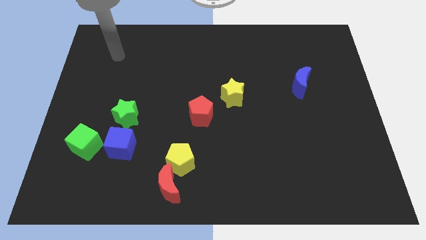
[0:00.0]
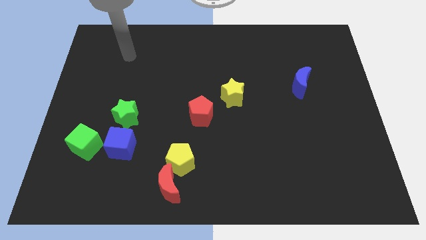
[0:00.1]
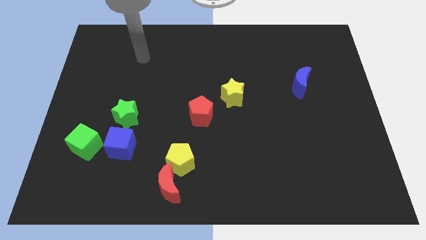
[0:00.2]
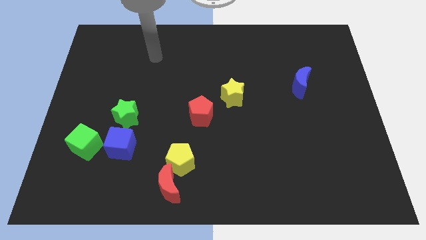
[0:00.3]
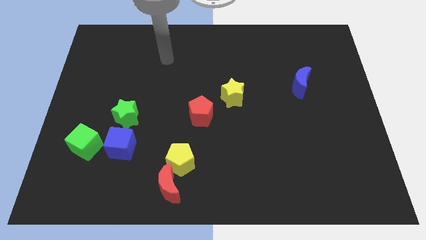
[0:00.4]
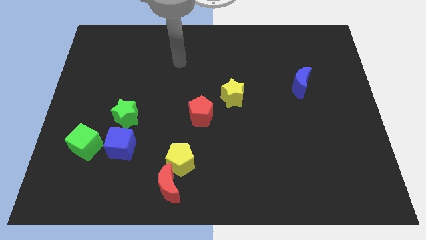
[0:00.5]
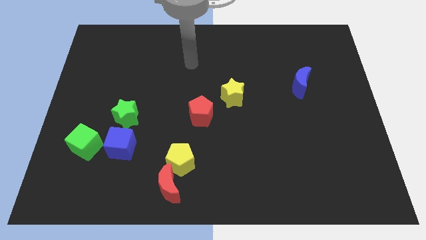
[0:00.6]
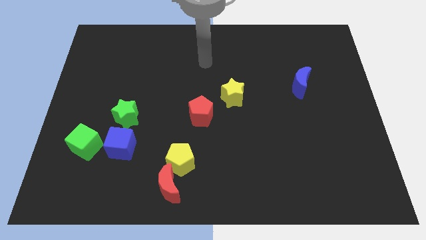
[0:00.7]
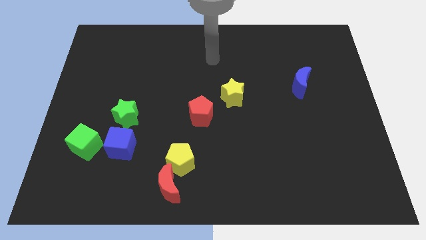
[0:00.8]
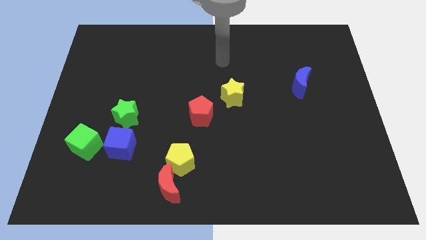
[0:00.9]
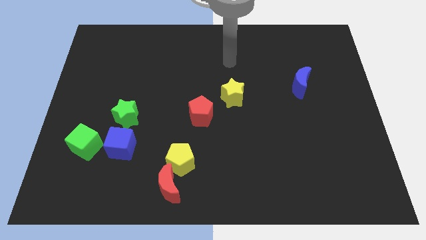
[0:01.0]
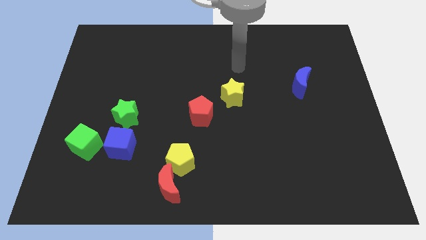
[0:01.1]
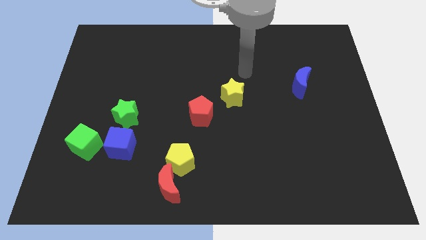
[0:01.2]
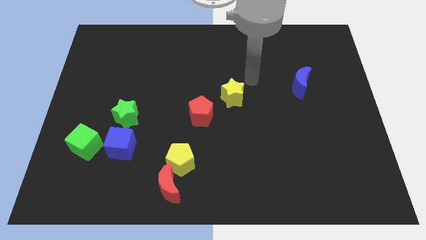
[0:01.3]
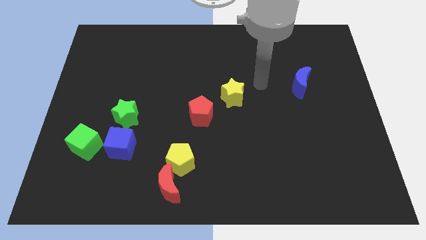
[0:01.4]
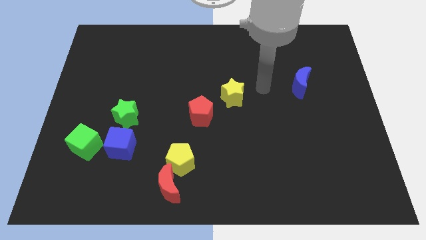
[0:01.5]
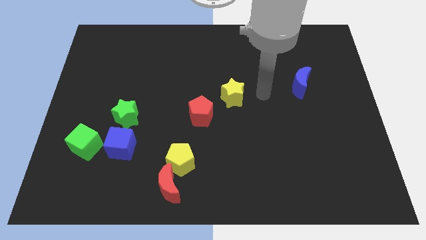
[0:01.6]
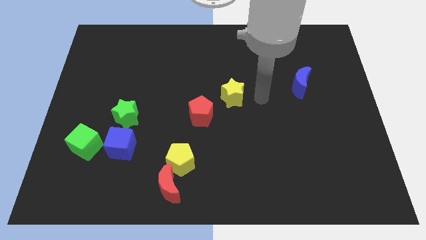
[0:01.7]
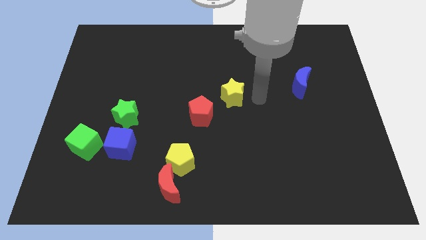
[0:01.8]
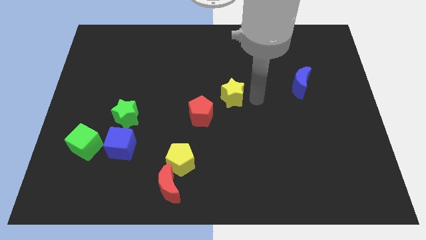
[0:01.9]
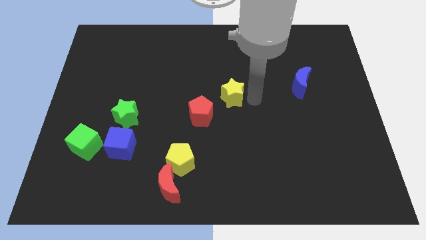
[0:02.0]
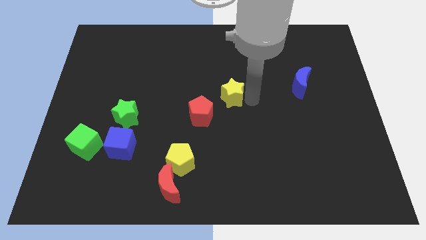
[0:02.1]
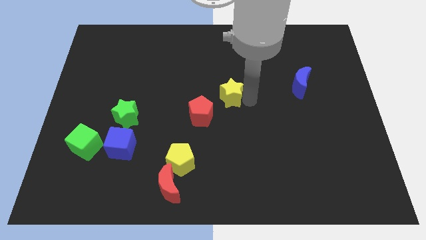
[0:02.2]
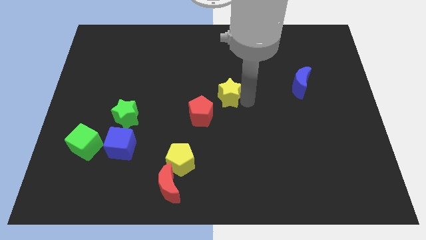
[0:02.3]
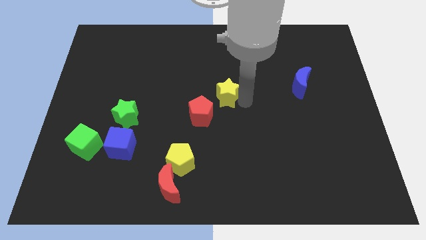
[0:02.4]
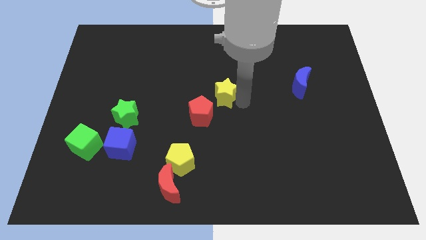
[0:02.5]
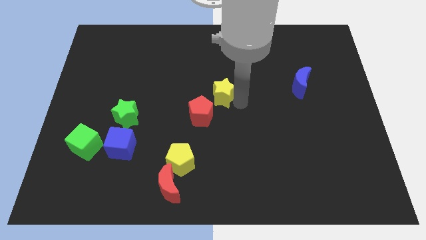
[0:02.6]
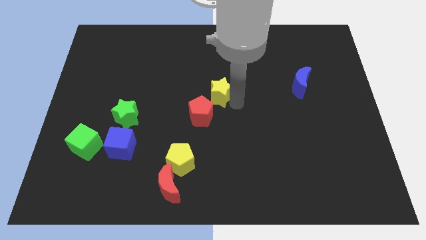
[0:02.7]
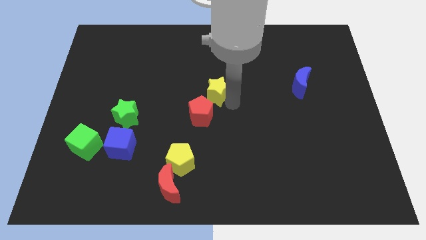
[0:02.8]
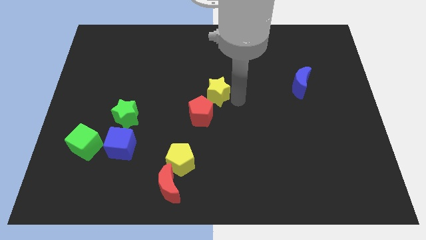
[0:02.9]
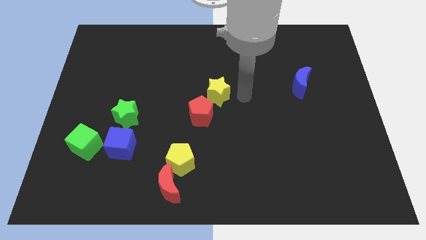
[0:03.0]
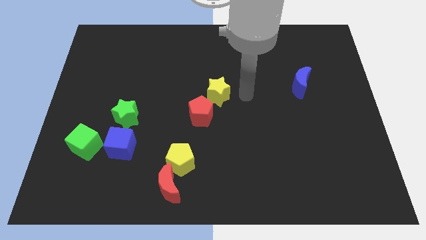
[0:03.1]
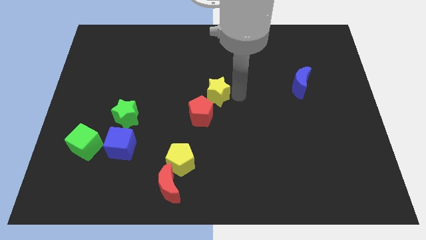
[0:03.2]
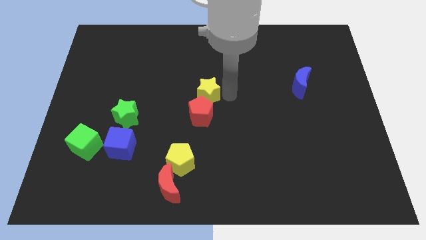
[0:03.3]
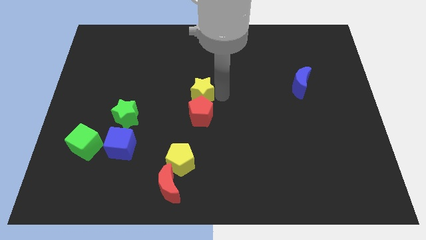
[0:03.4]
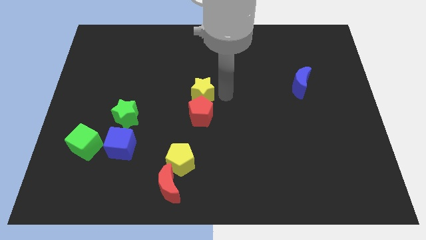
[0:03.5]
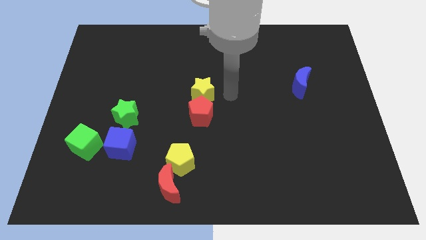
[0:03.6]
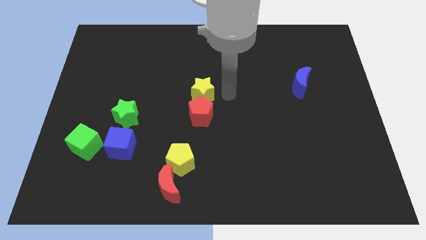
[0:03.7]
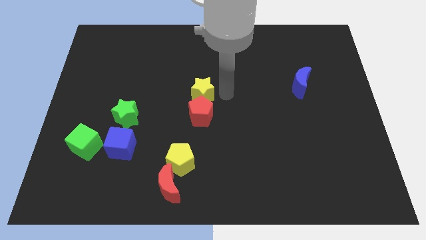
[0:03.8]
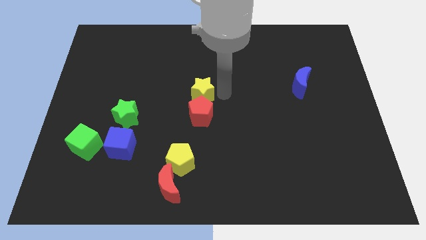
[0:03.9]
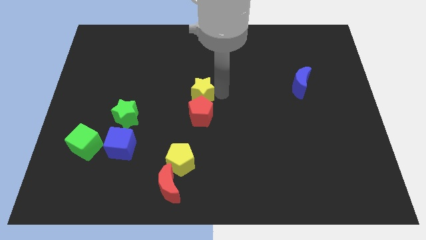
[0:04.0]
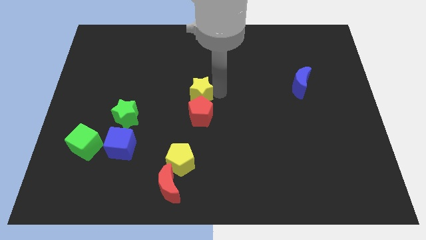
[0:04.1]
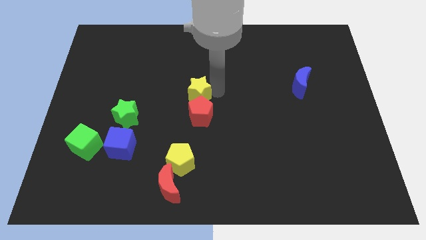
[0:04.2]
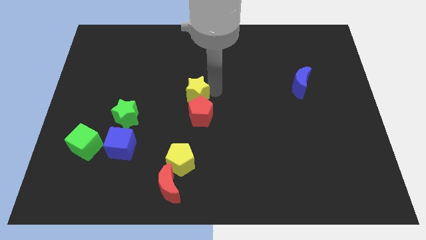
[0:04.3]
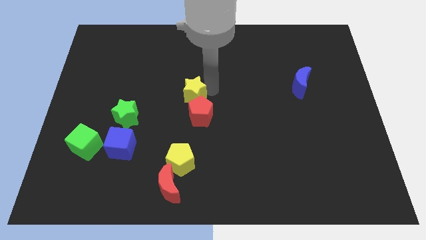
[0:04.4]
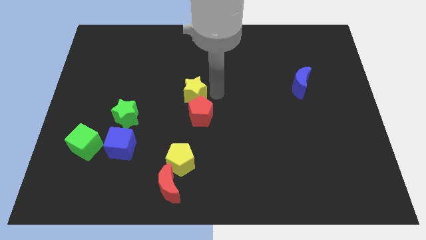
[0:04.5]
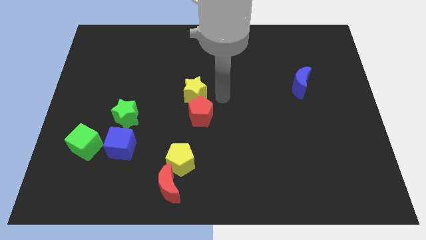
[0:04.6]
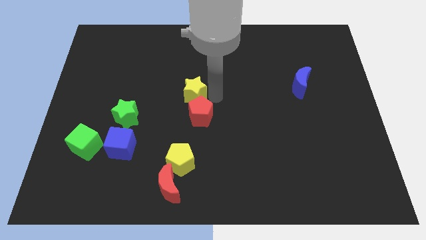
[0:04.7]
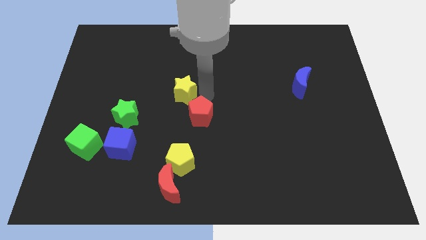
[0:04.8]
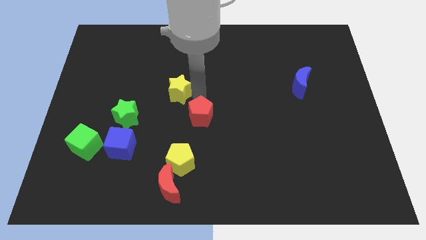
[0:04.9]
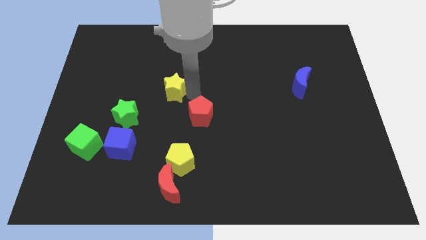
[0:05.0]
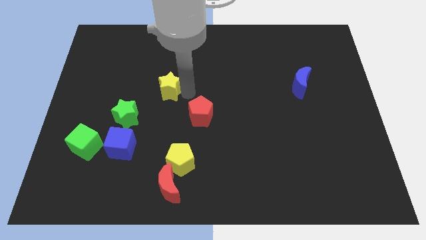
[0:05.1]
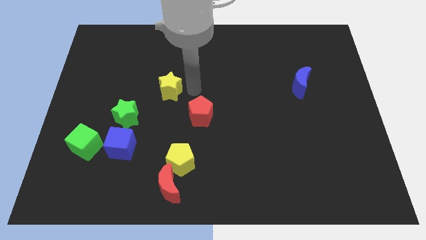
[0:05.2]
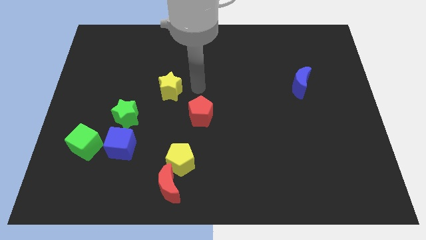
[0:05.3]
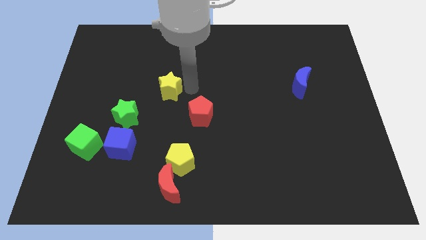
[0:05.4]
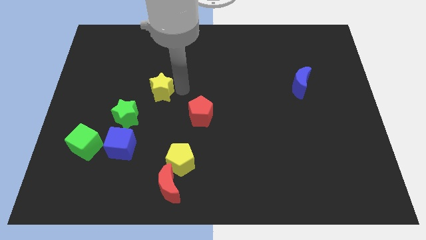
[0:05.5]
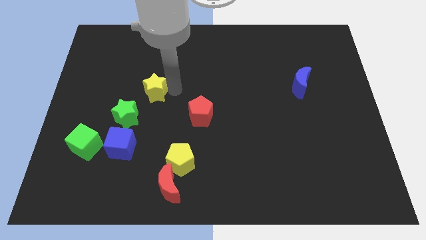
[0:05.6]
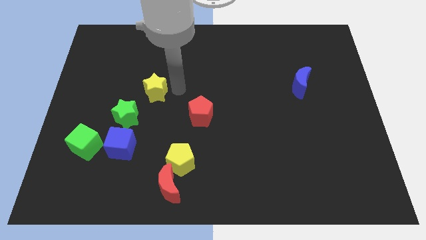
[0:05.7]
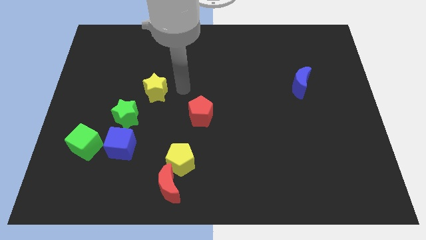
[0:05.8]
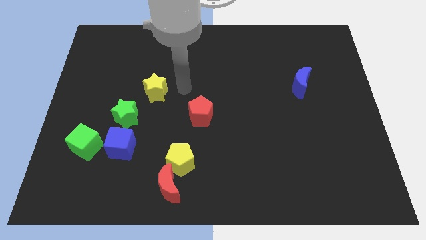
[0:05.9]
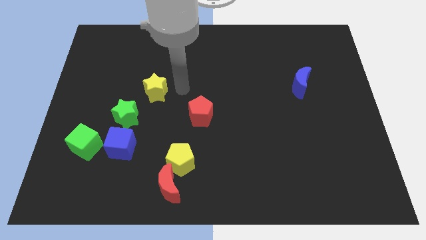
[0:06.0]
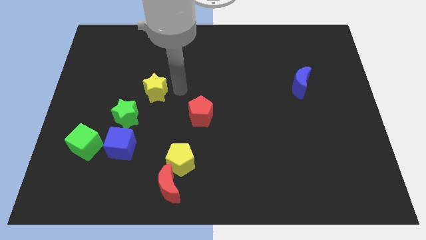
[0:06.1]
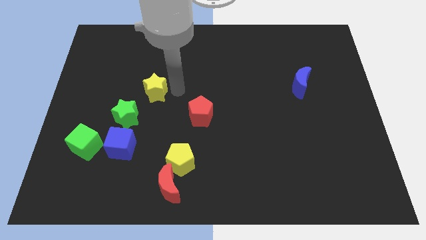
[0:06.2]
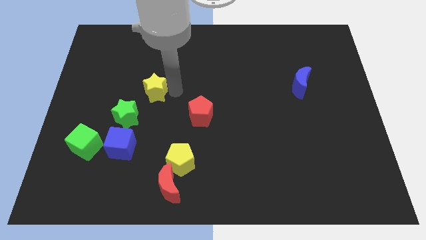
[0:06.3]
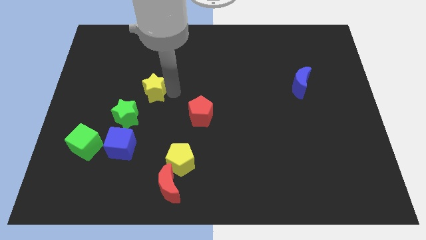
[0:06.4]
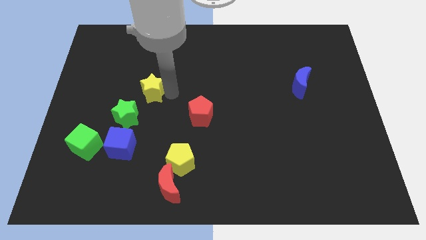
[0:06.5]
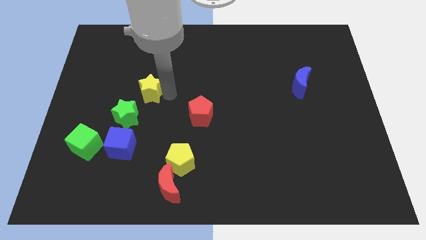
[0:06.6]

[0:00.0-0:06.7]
slide the yellow star to the left

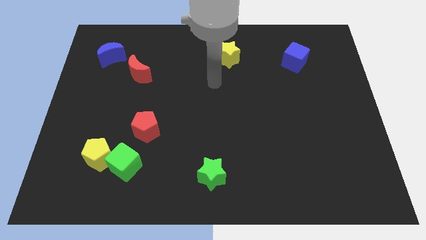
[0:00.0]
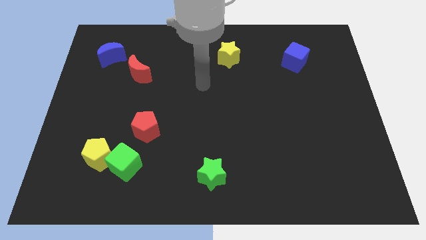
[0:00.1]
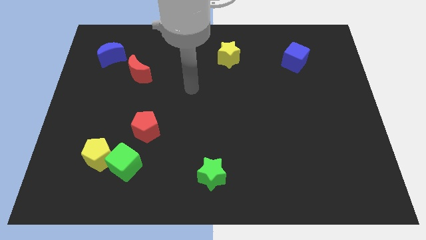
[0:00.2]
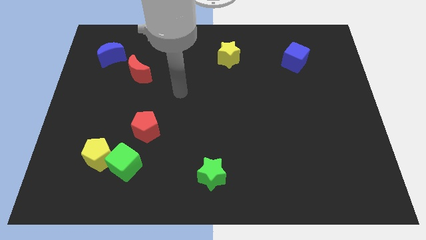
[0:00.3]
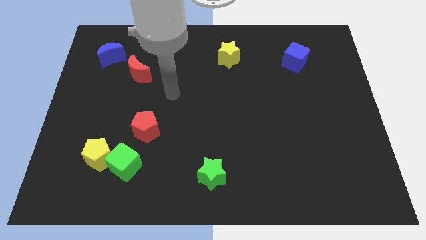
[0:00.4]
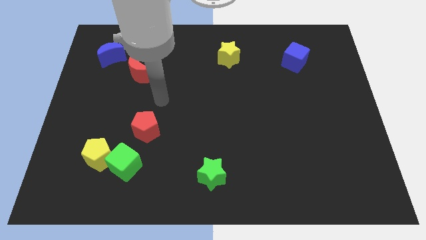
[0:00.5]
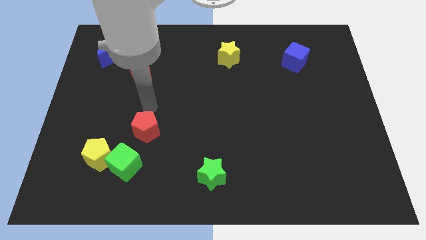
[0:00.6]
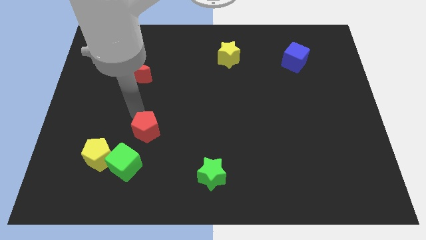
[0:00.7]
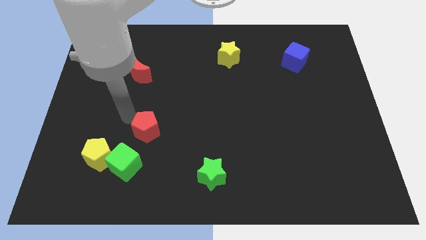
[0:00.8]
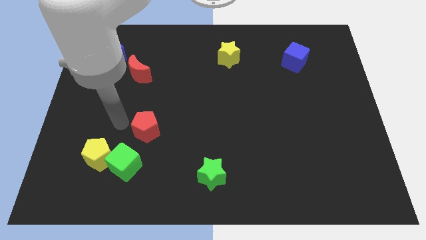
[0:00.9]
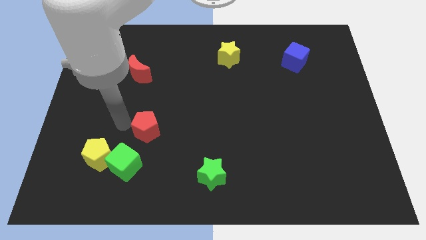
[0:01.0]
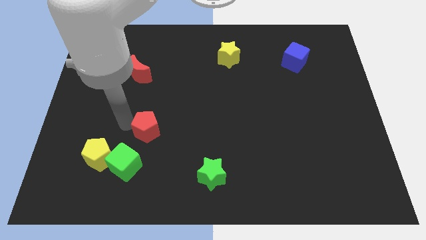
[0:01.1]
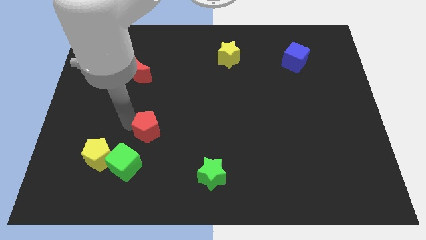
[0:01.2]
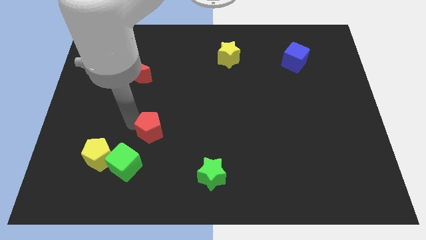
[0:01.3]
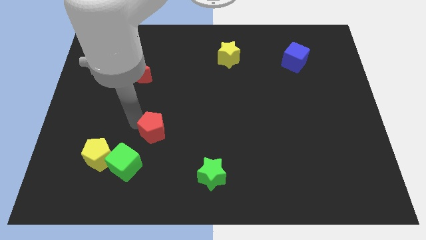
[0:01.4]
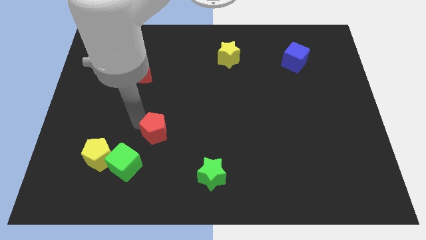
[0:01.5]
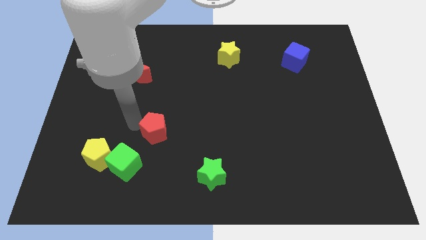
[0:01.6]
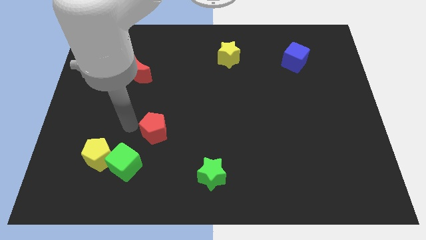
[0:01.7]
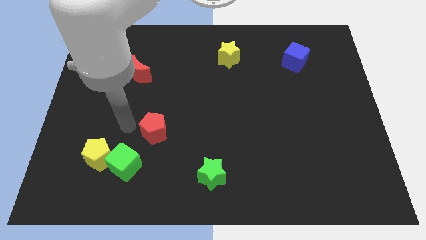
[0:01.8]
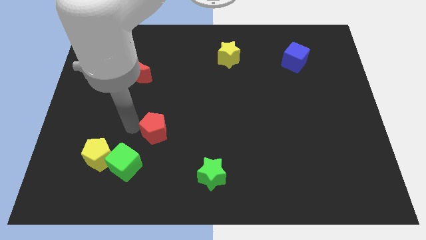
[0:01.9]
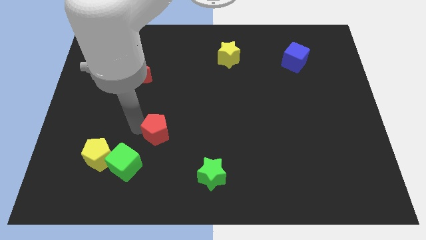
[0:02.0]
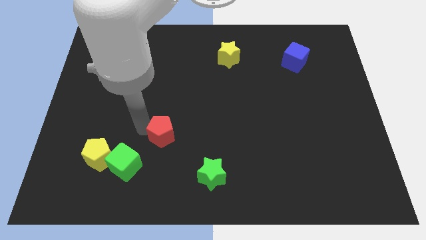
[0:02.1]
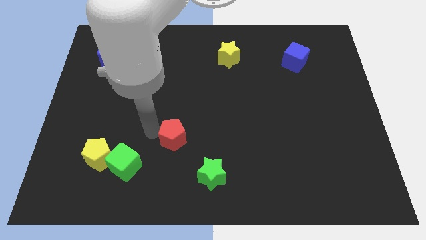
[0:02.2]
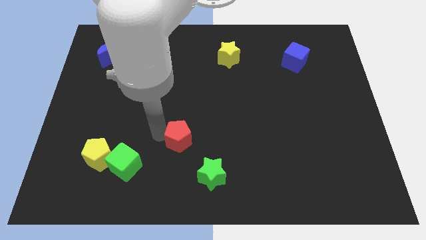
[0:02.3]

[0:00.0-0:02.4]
move the red pentagon right a bit
